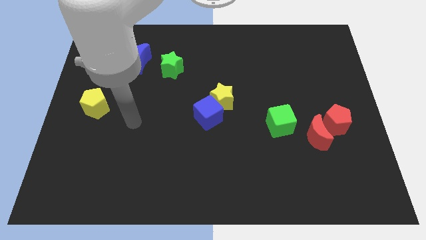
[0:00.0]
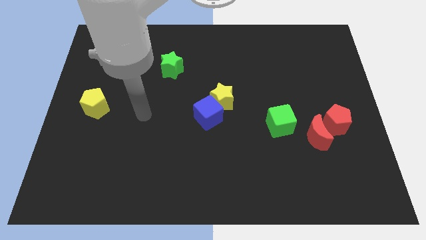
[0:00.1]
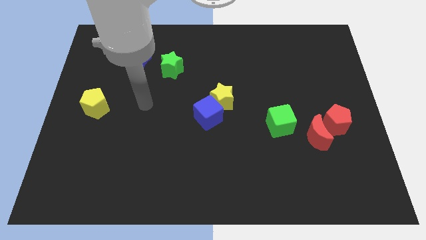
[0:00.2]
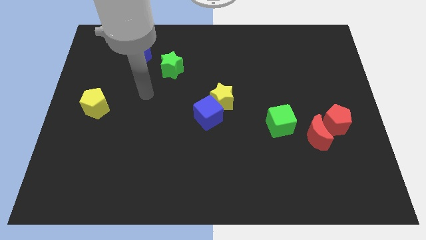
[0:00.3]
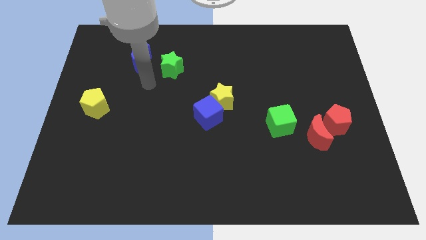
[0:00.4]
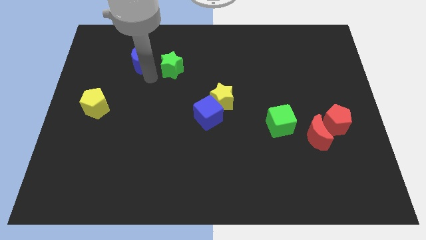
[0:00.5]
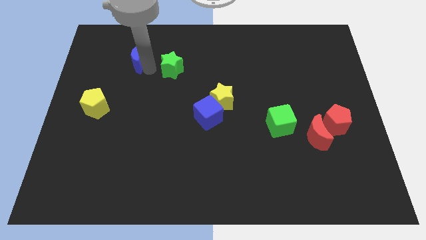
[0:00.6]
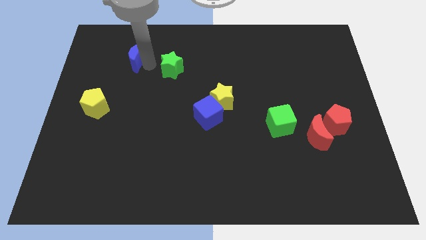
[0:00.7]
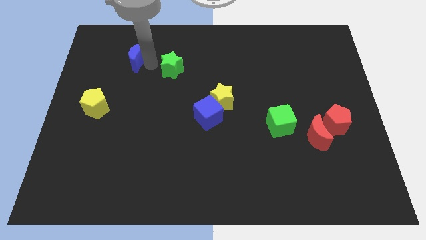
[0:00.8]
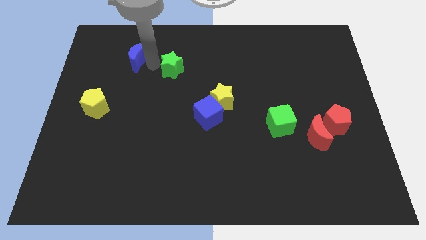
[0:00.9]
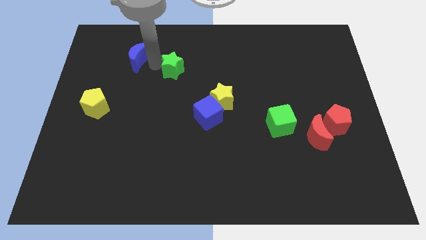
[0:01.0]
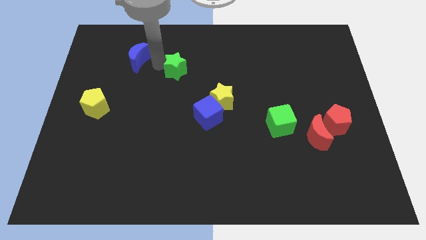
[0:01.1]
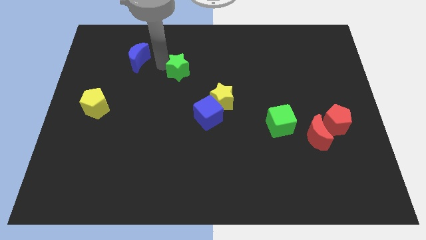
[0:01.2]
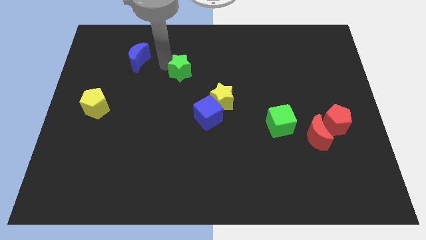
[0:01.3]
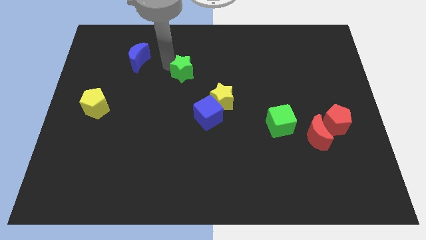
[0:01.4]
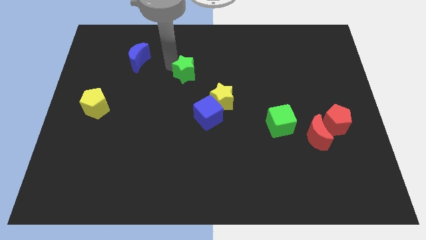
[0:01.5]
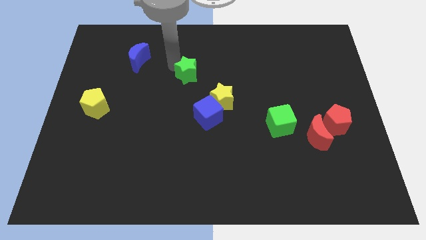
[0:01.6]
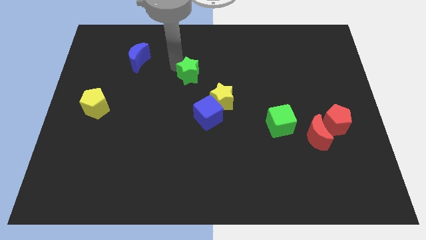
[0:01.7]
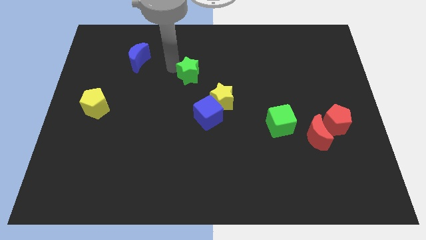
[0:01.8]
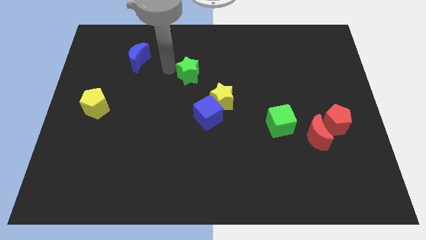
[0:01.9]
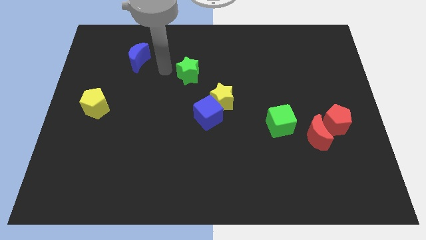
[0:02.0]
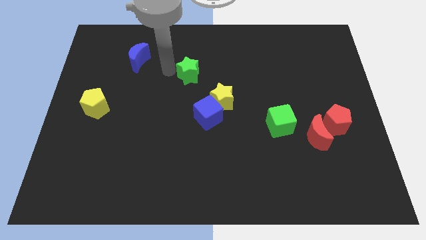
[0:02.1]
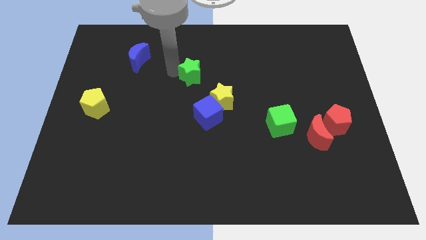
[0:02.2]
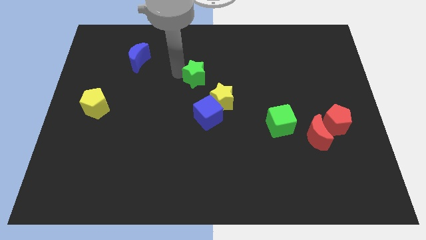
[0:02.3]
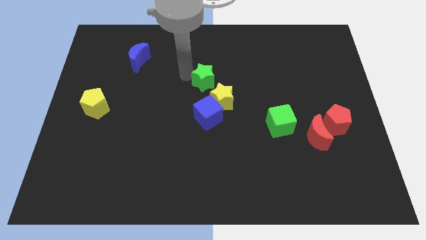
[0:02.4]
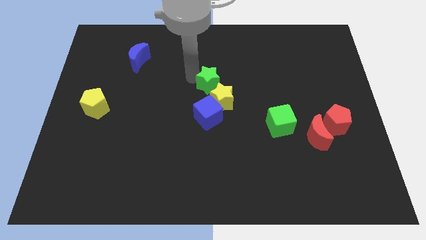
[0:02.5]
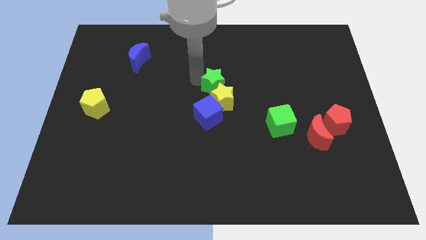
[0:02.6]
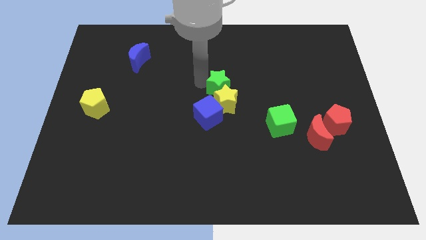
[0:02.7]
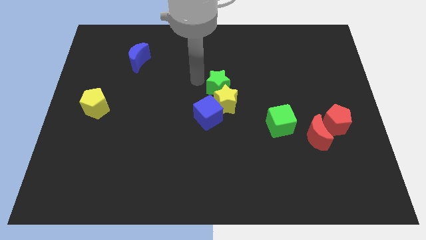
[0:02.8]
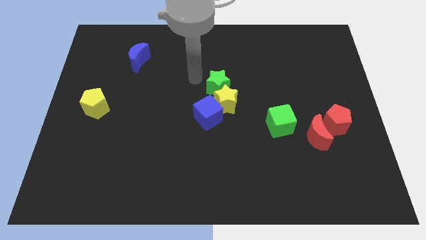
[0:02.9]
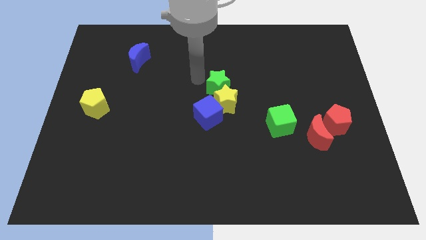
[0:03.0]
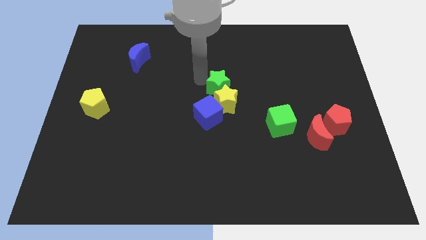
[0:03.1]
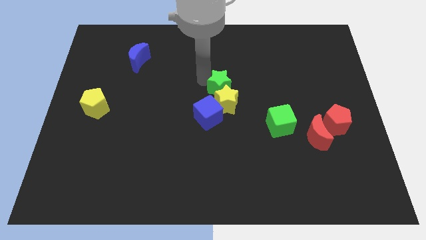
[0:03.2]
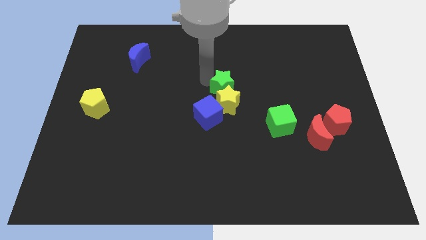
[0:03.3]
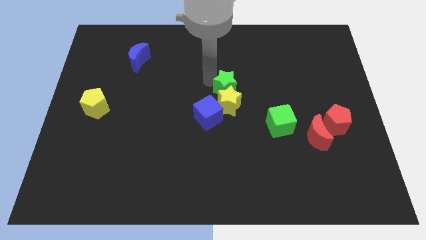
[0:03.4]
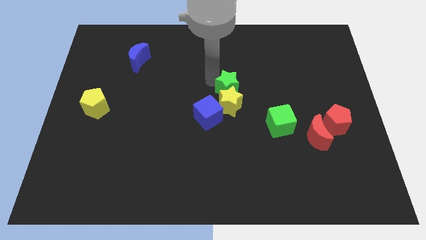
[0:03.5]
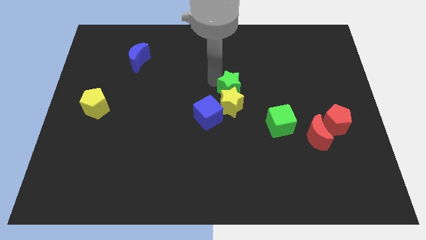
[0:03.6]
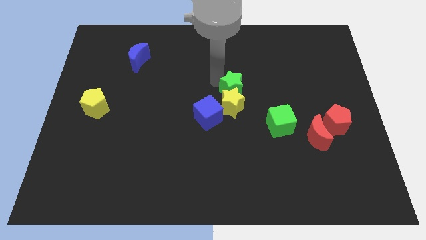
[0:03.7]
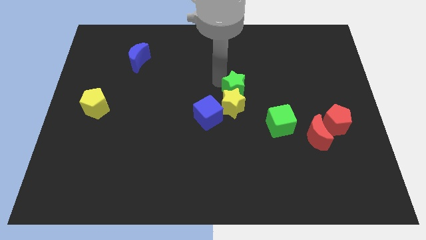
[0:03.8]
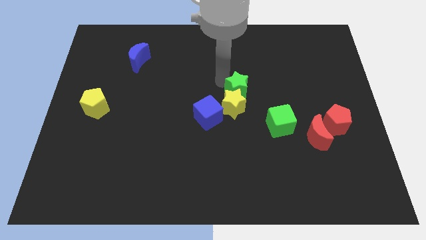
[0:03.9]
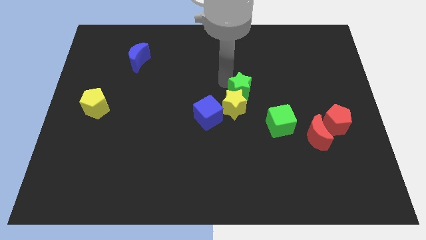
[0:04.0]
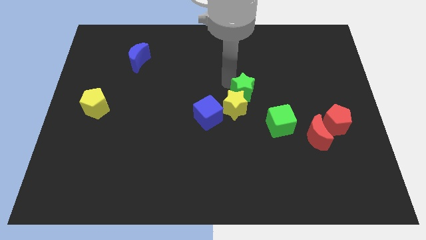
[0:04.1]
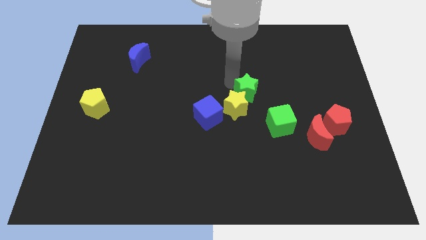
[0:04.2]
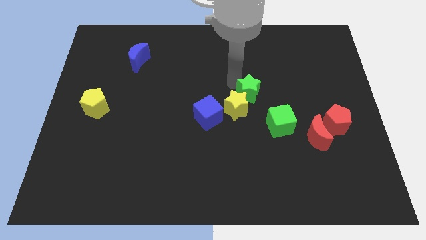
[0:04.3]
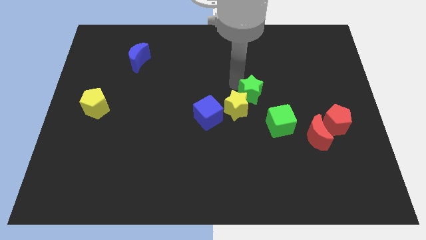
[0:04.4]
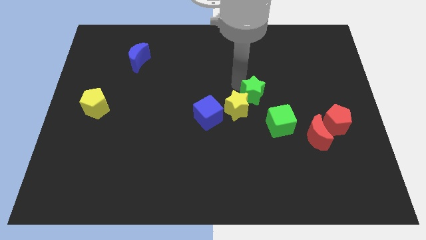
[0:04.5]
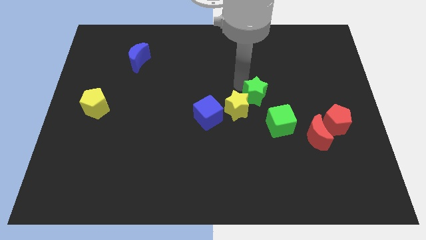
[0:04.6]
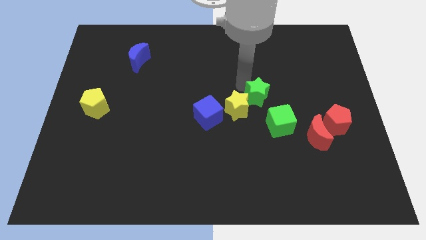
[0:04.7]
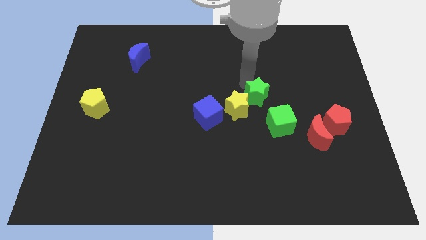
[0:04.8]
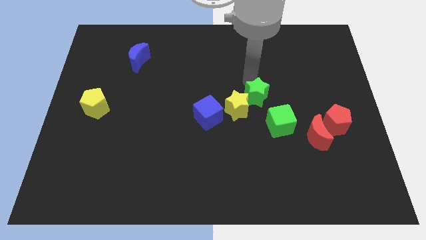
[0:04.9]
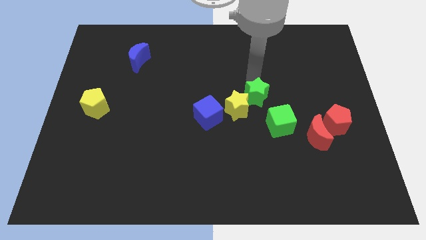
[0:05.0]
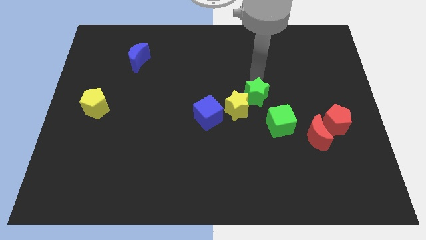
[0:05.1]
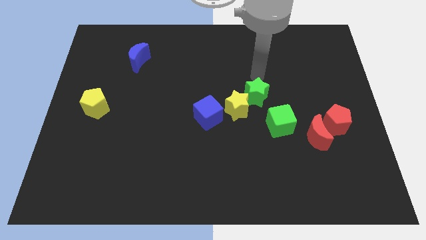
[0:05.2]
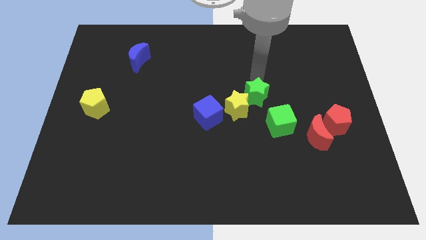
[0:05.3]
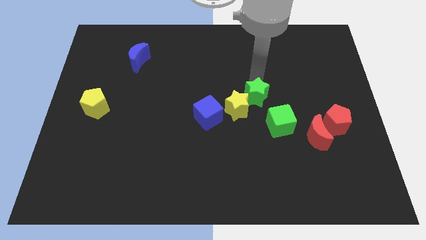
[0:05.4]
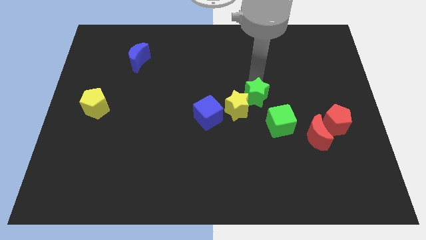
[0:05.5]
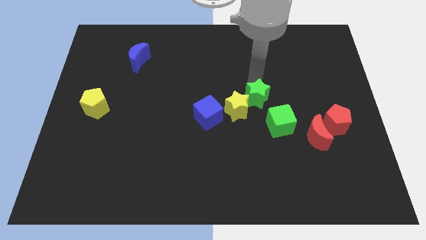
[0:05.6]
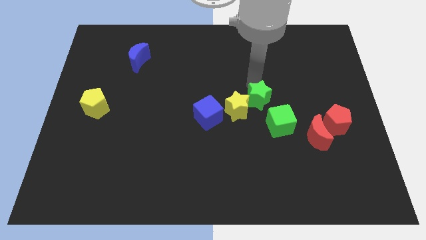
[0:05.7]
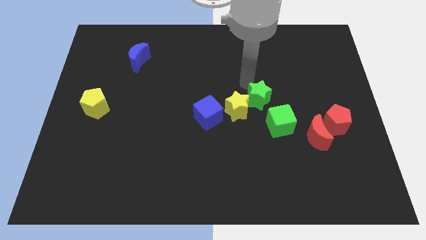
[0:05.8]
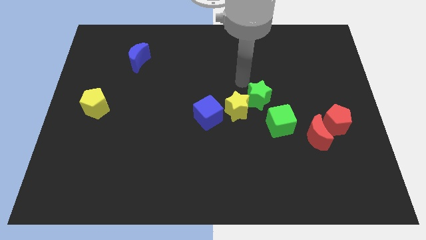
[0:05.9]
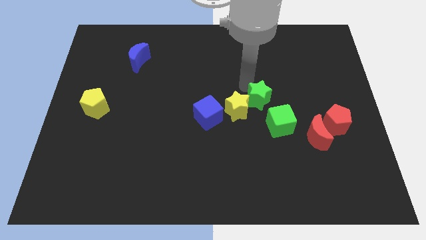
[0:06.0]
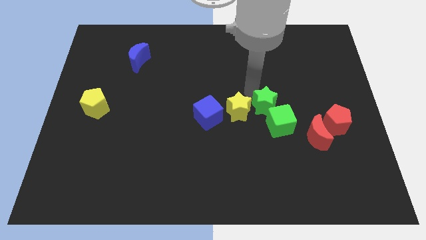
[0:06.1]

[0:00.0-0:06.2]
slide the green star towards the green cube
